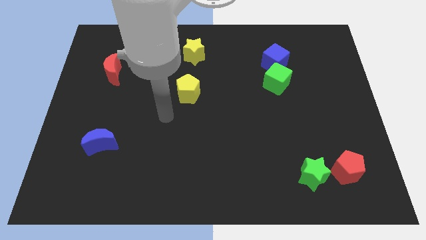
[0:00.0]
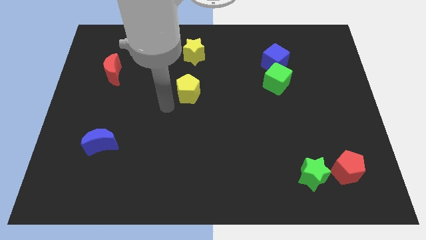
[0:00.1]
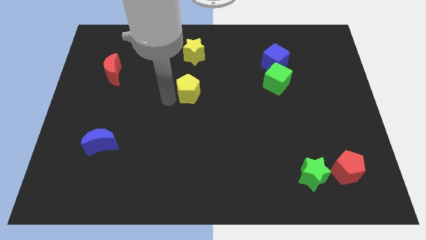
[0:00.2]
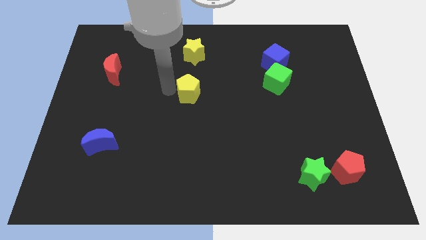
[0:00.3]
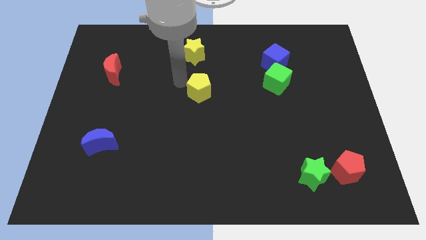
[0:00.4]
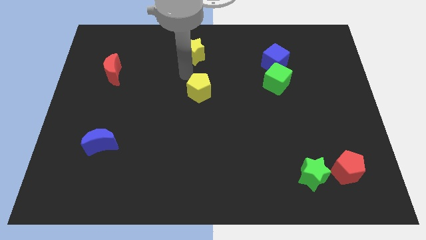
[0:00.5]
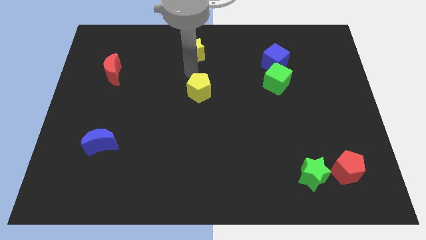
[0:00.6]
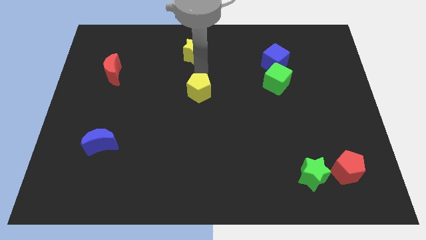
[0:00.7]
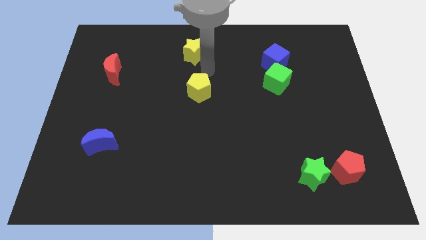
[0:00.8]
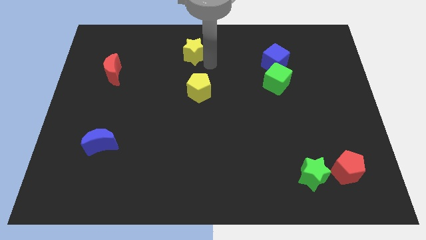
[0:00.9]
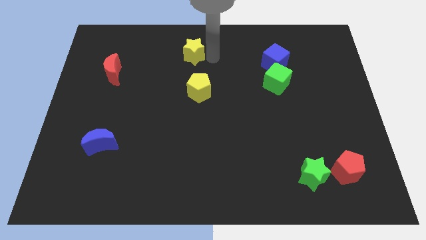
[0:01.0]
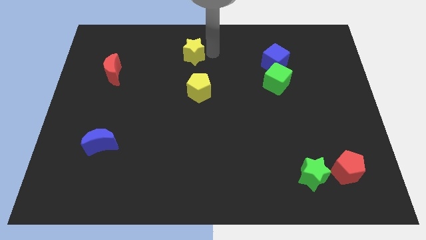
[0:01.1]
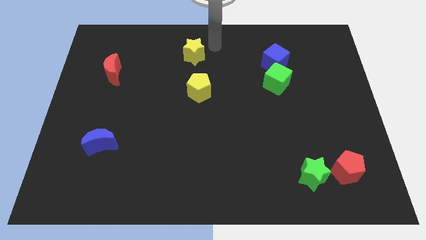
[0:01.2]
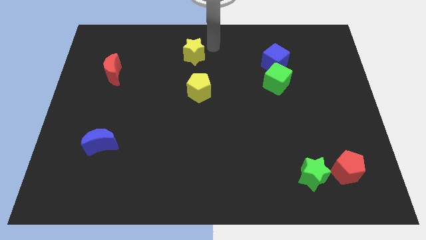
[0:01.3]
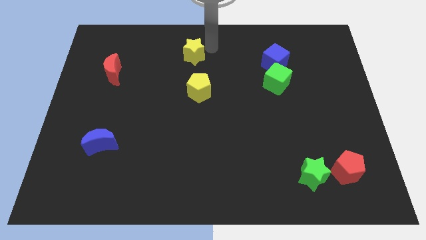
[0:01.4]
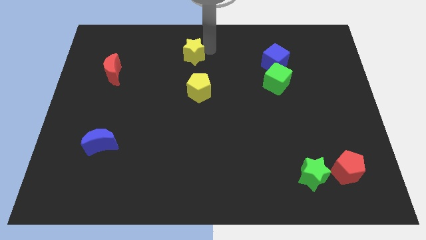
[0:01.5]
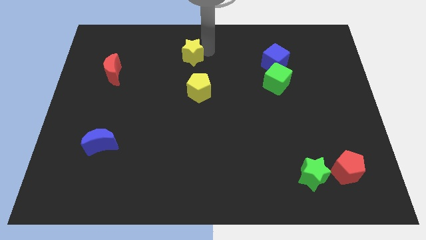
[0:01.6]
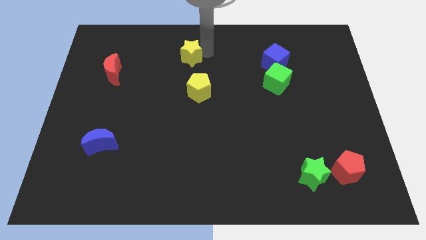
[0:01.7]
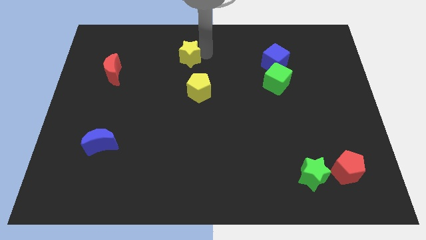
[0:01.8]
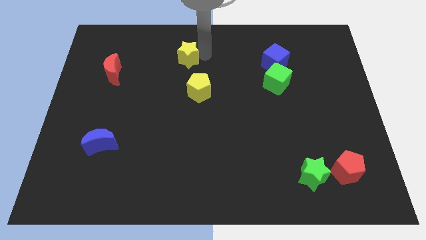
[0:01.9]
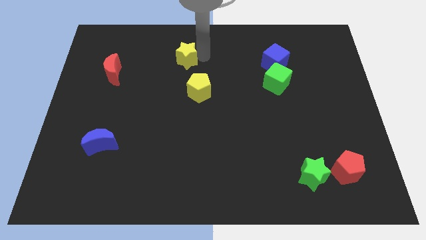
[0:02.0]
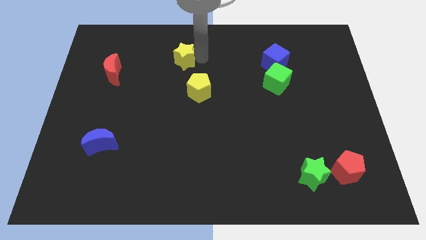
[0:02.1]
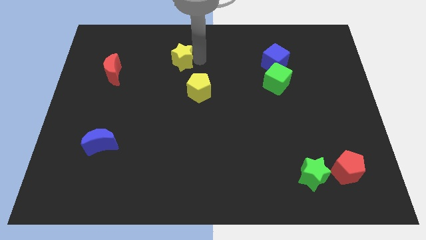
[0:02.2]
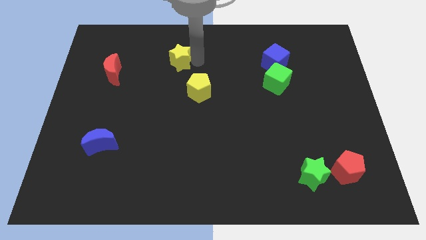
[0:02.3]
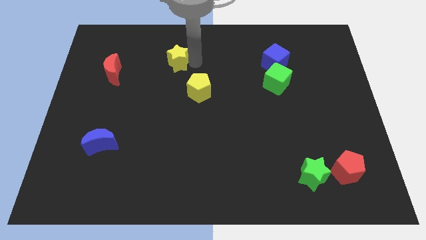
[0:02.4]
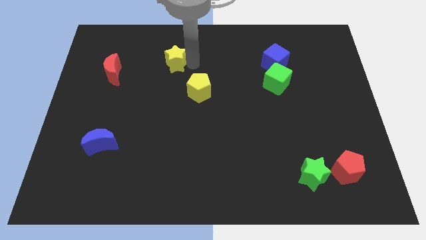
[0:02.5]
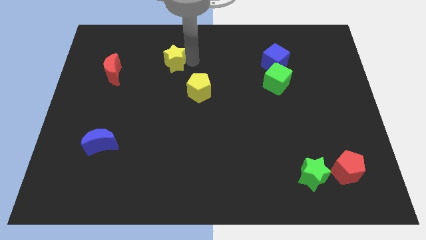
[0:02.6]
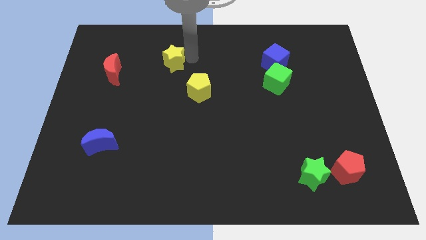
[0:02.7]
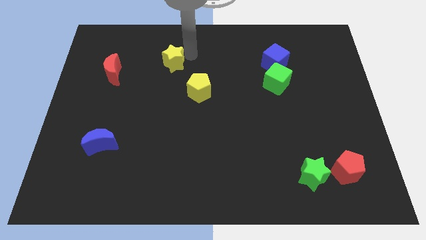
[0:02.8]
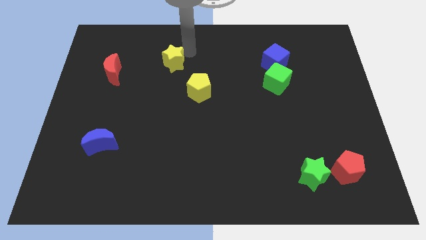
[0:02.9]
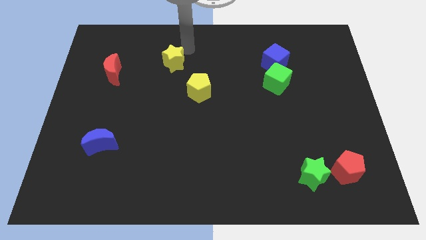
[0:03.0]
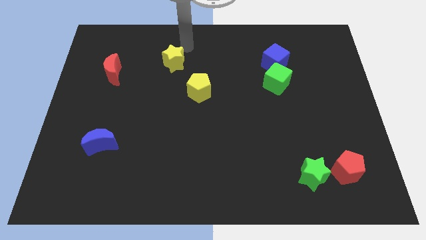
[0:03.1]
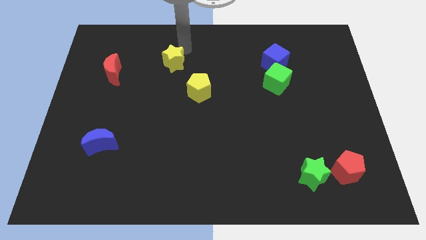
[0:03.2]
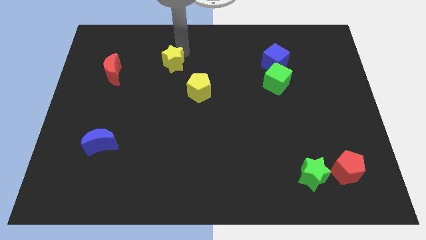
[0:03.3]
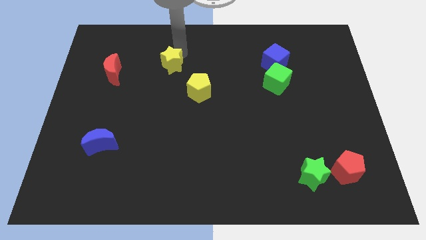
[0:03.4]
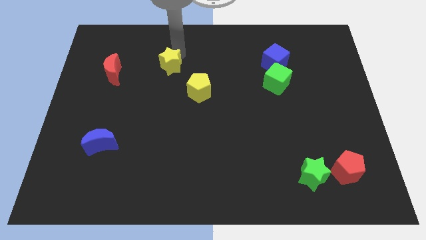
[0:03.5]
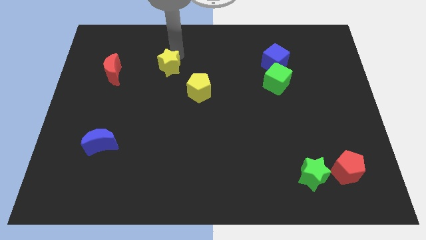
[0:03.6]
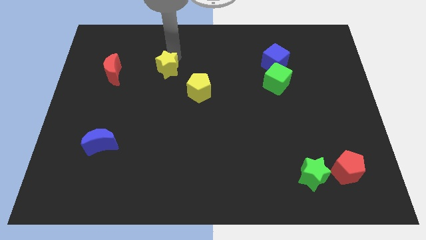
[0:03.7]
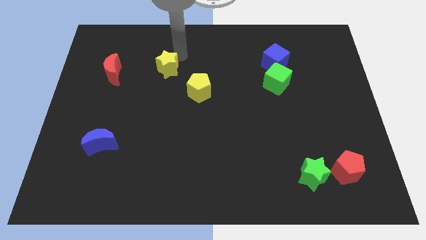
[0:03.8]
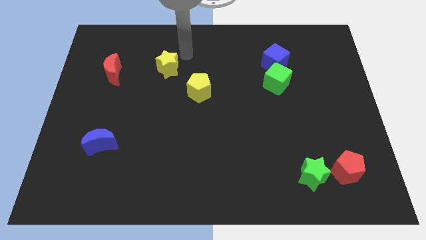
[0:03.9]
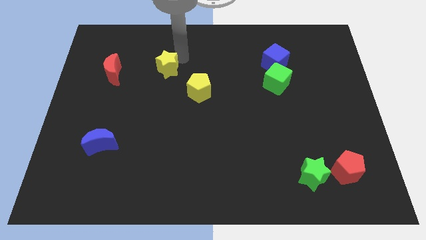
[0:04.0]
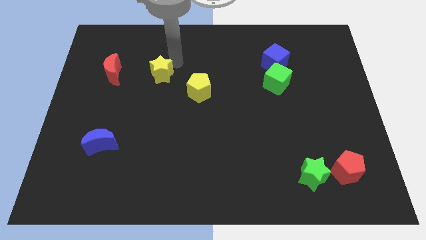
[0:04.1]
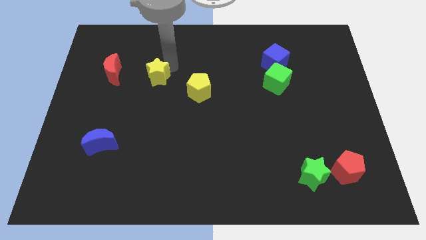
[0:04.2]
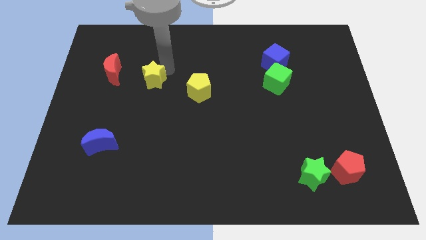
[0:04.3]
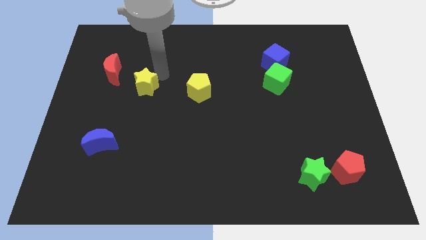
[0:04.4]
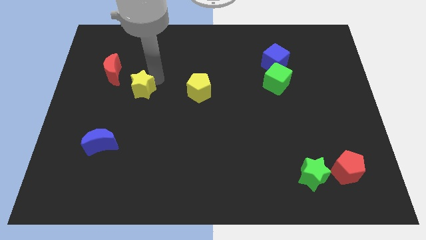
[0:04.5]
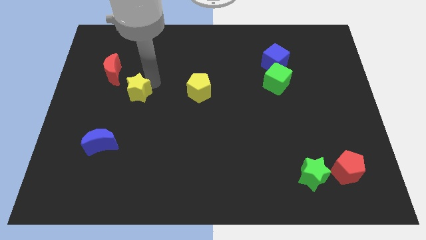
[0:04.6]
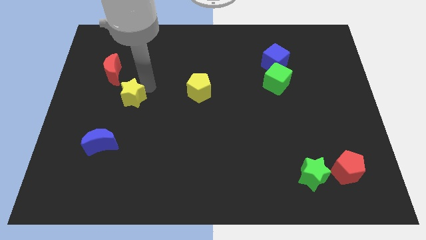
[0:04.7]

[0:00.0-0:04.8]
slide the yellow star down and then to the left

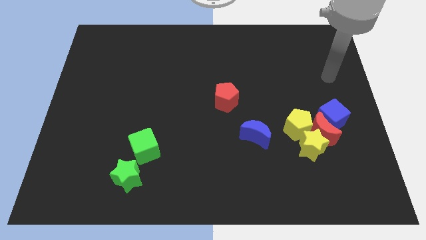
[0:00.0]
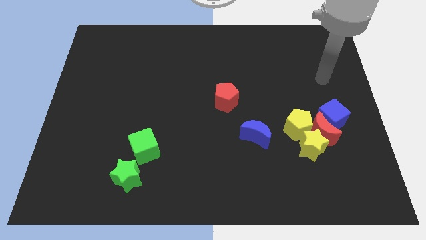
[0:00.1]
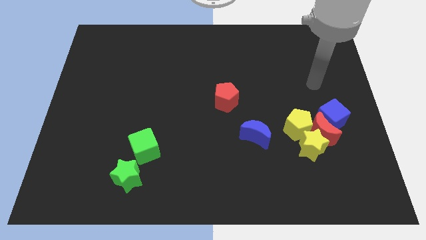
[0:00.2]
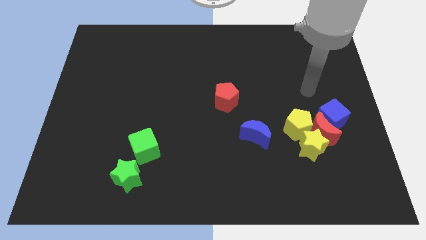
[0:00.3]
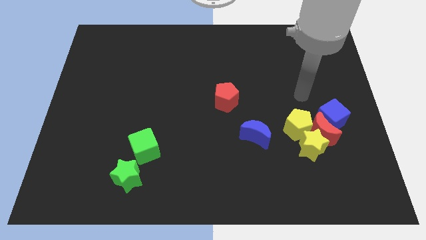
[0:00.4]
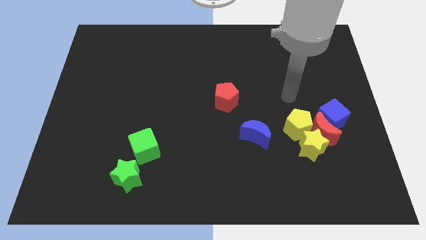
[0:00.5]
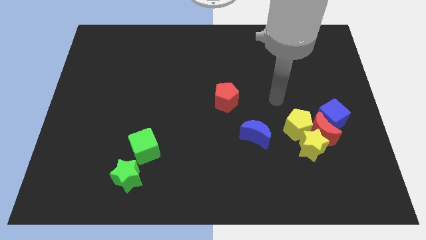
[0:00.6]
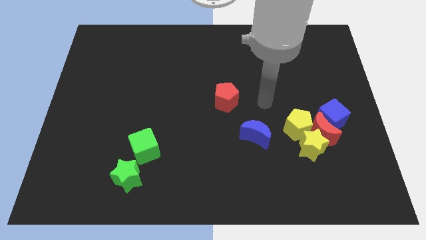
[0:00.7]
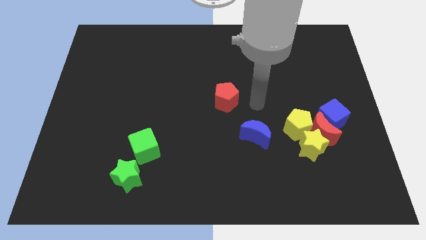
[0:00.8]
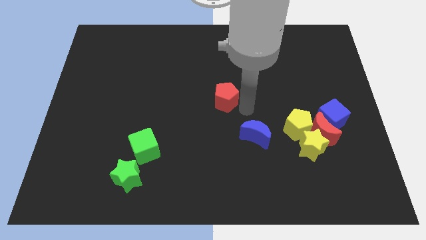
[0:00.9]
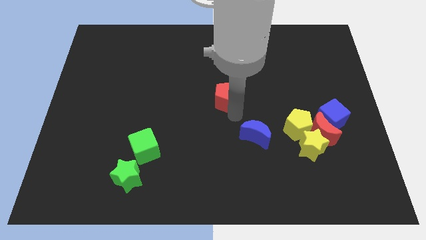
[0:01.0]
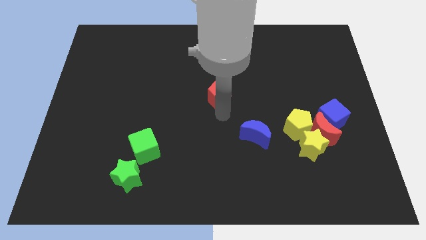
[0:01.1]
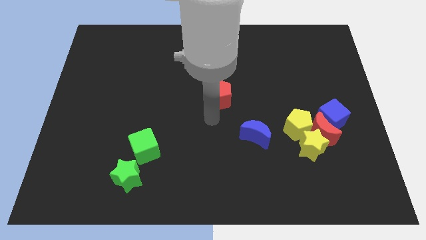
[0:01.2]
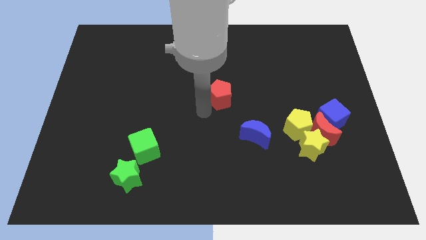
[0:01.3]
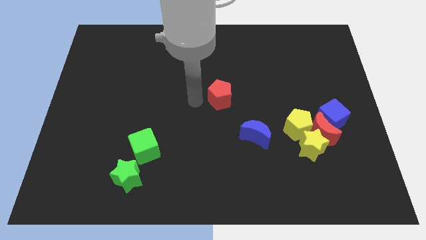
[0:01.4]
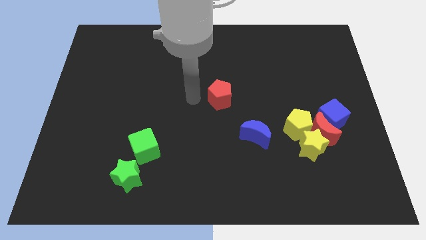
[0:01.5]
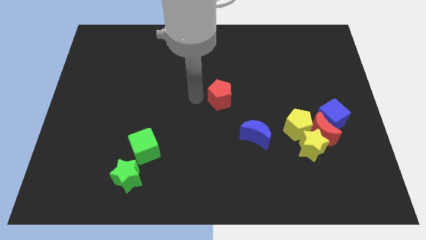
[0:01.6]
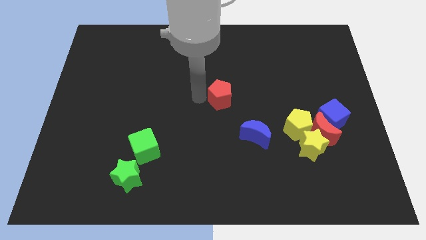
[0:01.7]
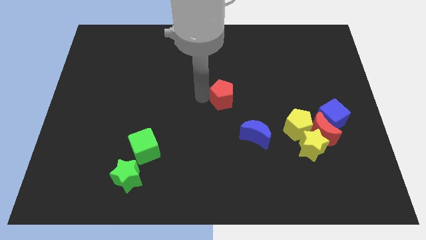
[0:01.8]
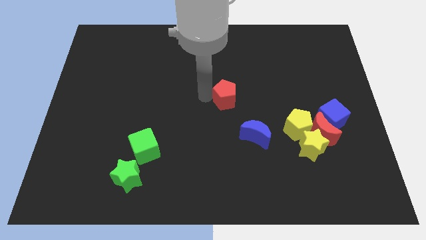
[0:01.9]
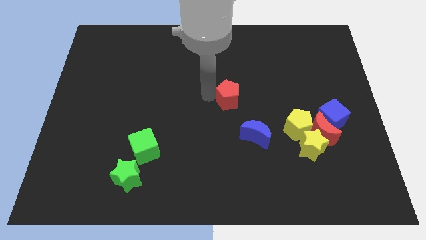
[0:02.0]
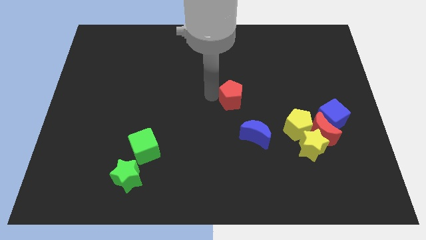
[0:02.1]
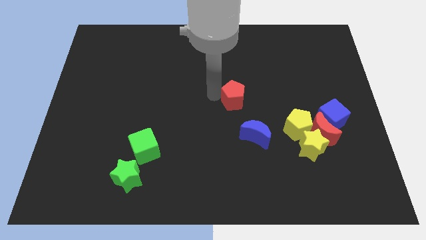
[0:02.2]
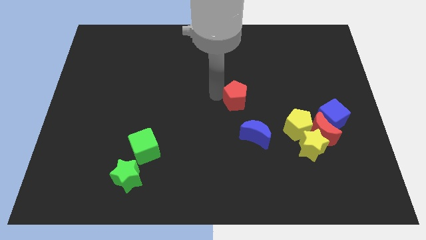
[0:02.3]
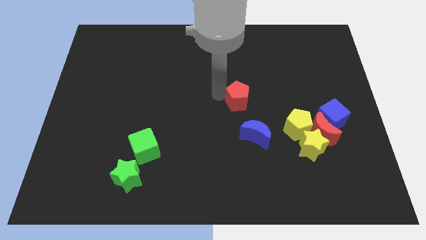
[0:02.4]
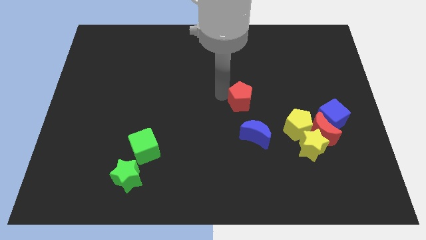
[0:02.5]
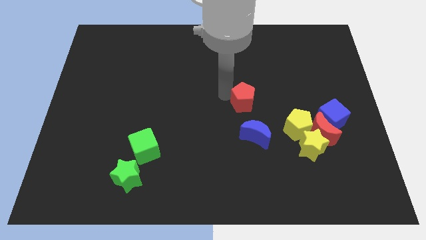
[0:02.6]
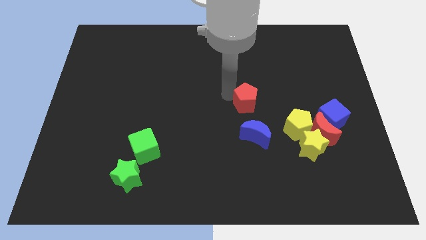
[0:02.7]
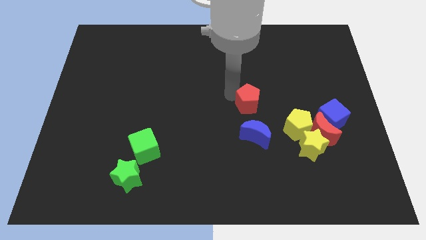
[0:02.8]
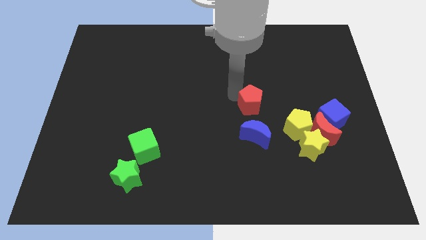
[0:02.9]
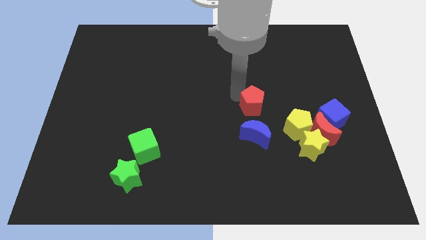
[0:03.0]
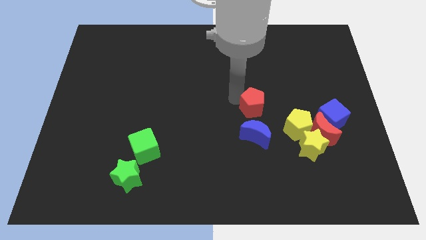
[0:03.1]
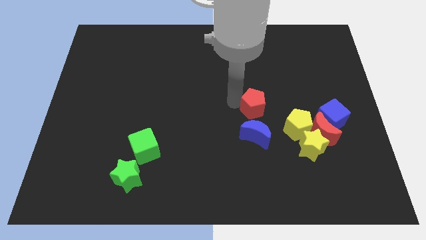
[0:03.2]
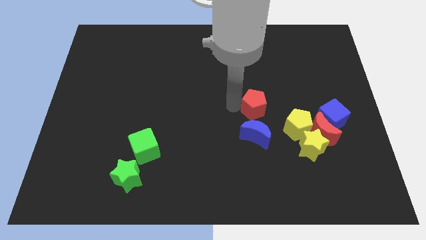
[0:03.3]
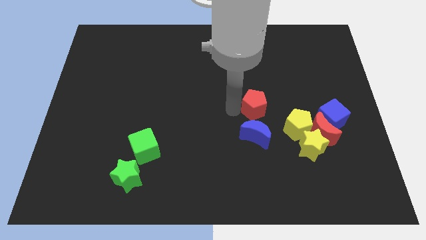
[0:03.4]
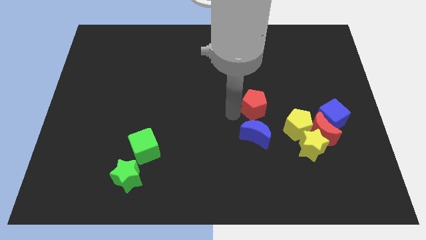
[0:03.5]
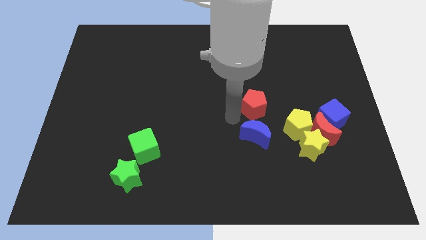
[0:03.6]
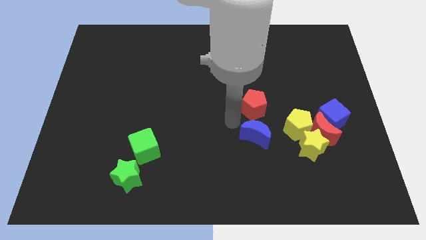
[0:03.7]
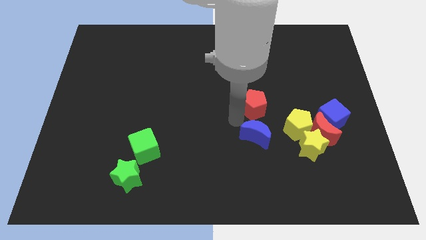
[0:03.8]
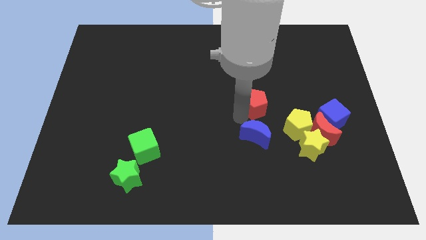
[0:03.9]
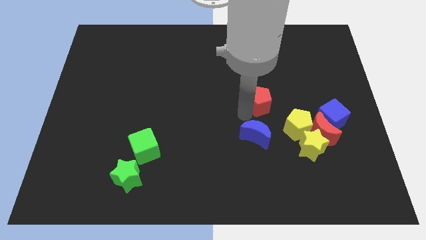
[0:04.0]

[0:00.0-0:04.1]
move the red pentagon slightly right
